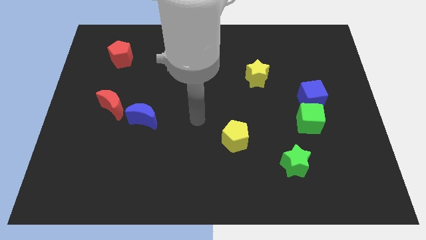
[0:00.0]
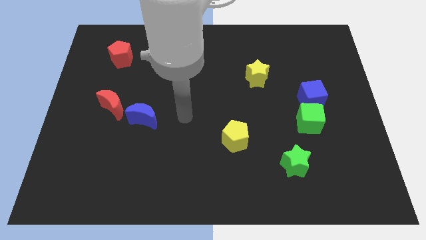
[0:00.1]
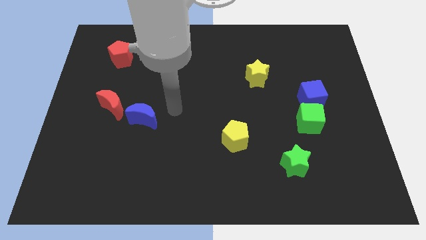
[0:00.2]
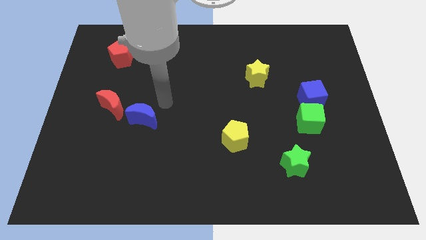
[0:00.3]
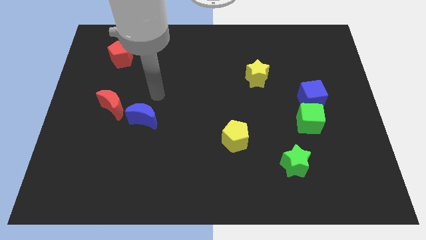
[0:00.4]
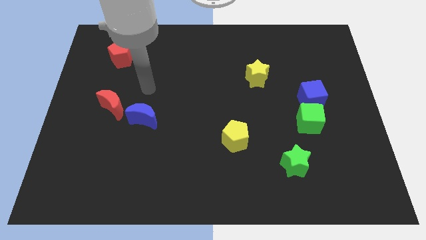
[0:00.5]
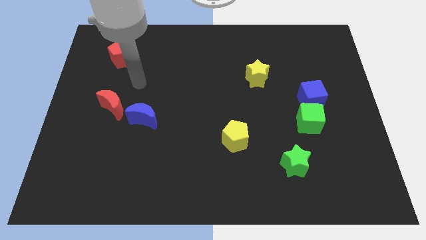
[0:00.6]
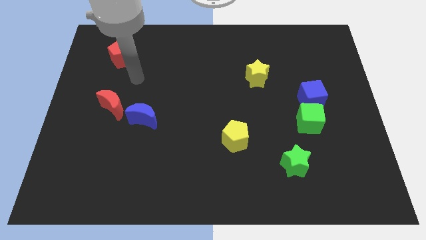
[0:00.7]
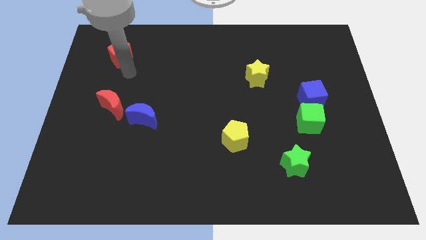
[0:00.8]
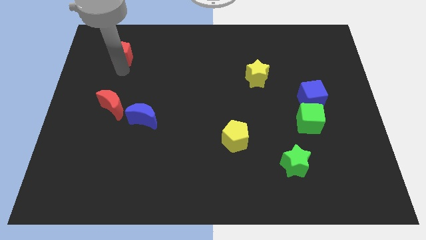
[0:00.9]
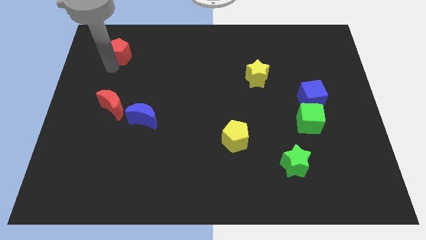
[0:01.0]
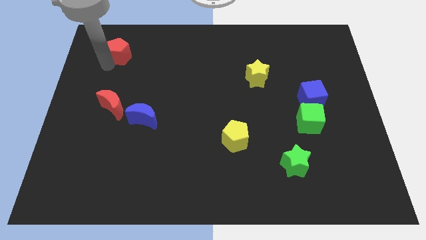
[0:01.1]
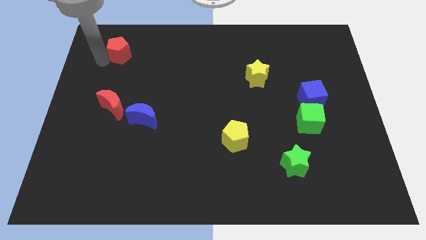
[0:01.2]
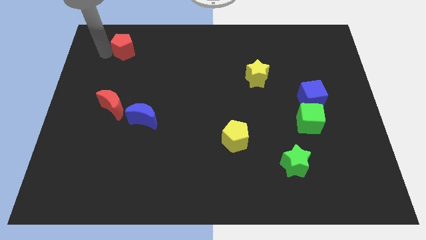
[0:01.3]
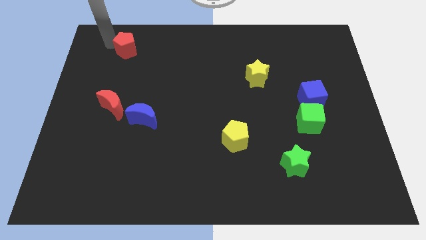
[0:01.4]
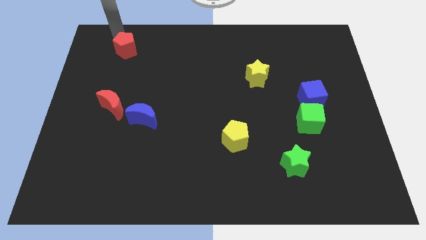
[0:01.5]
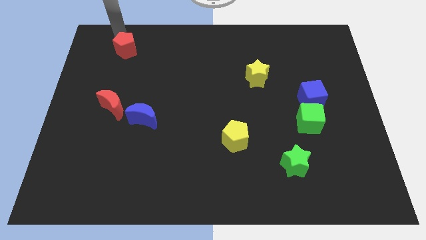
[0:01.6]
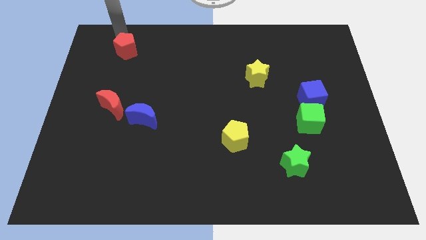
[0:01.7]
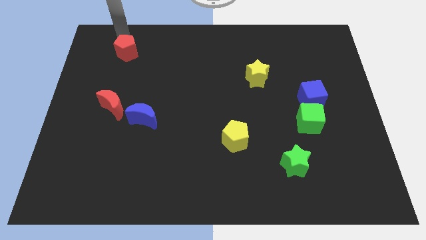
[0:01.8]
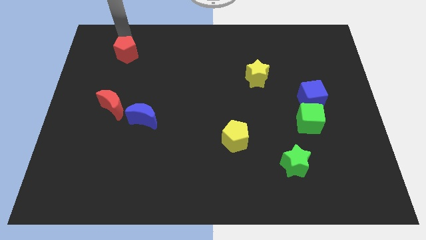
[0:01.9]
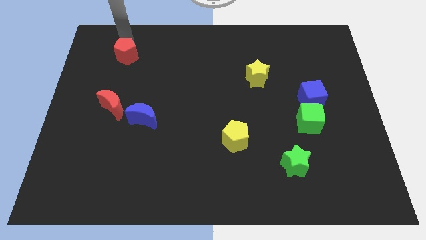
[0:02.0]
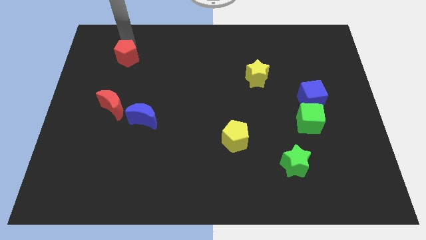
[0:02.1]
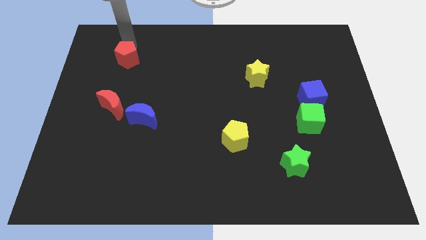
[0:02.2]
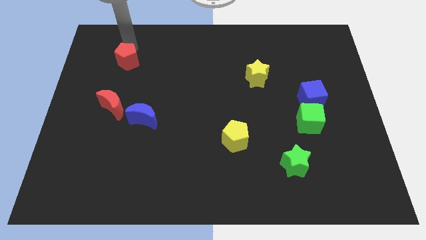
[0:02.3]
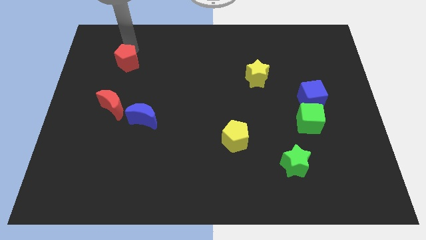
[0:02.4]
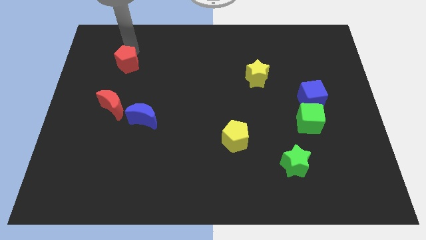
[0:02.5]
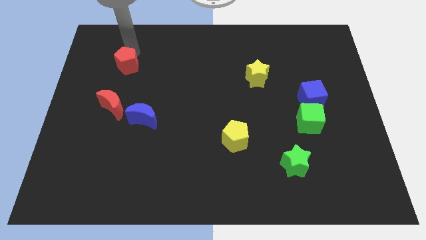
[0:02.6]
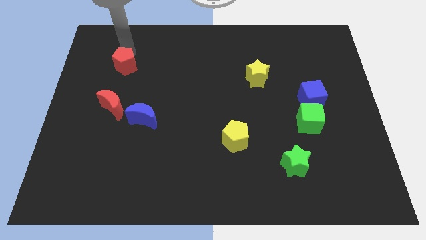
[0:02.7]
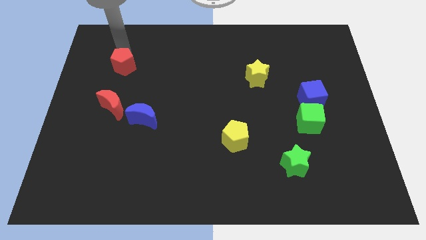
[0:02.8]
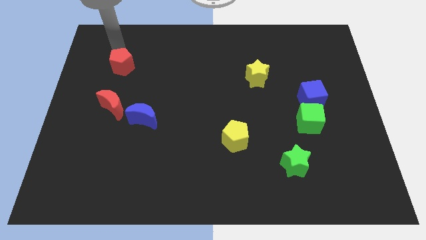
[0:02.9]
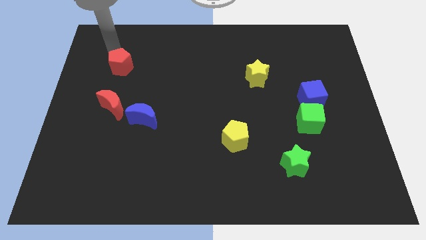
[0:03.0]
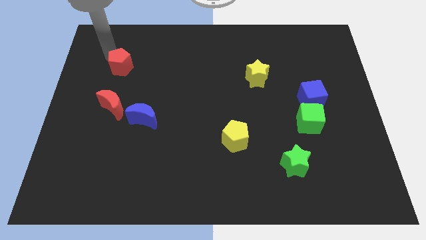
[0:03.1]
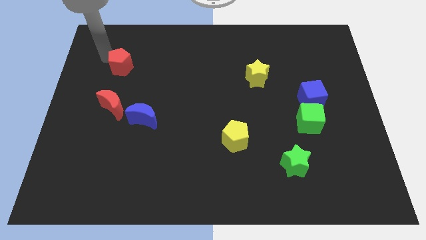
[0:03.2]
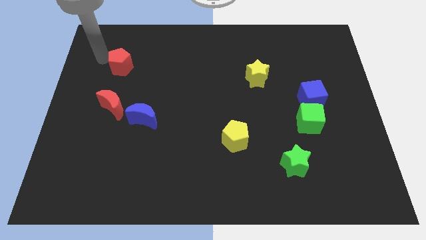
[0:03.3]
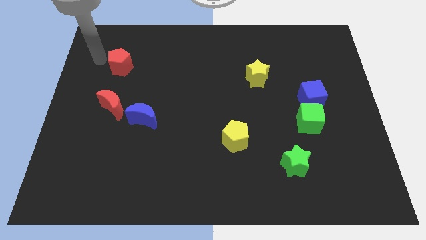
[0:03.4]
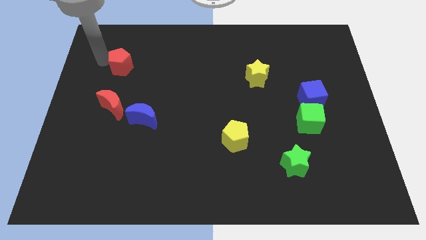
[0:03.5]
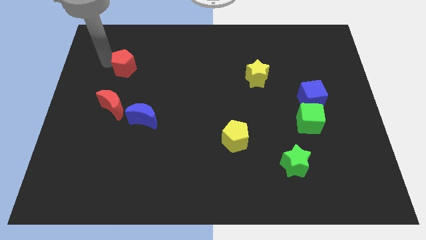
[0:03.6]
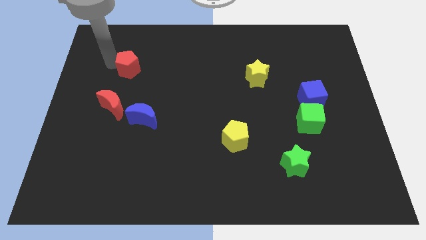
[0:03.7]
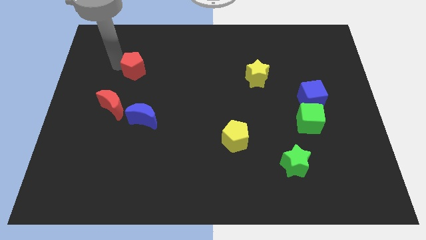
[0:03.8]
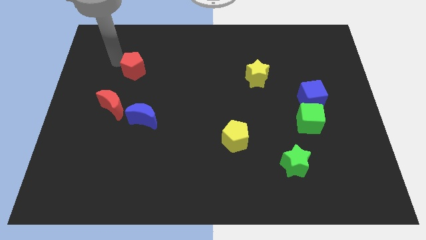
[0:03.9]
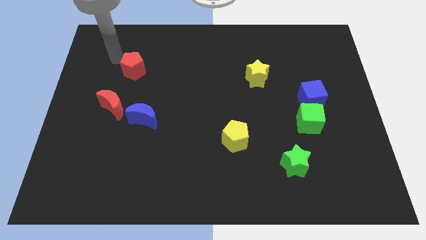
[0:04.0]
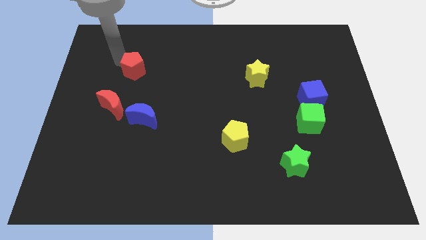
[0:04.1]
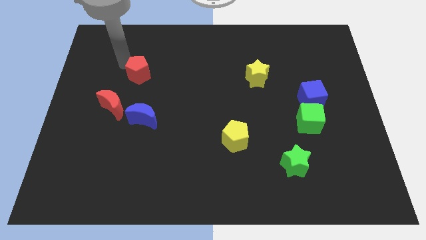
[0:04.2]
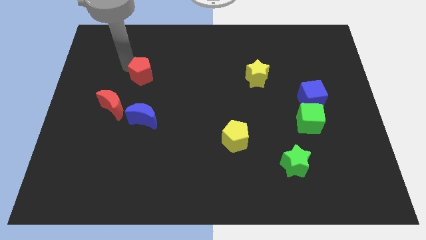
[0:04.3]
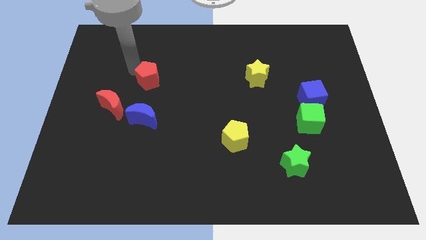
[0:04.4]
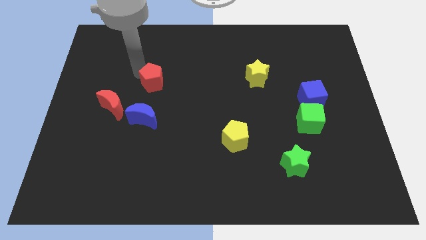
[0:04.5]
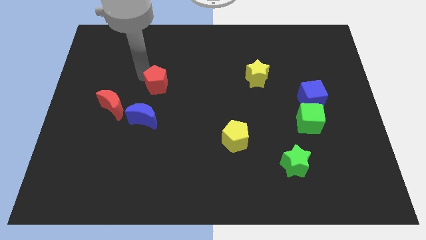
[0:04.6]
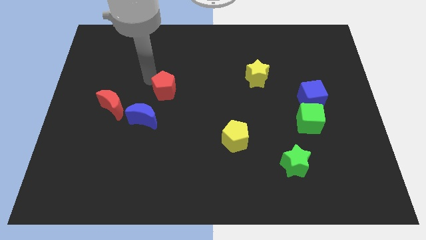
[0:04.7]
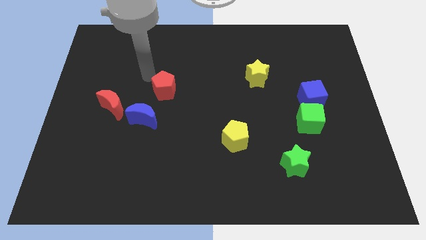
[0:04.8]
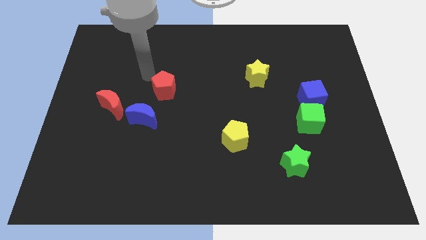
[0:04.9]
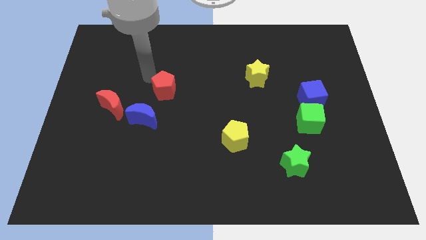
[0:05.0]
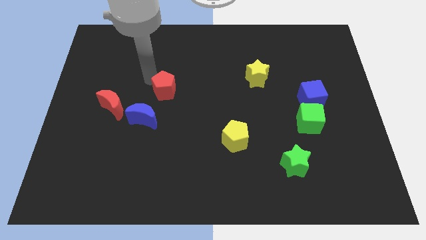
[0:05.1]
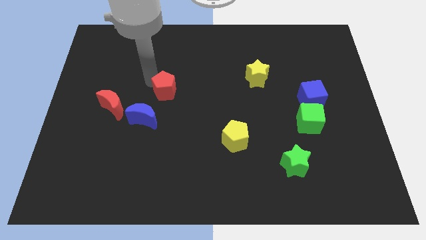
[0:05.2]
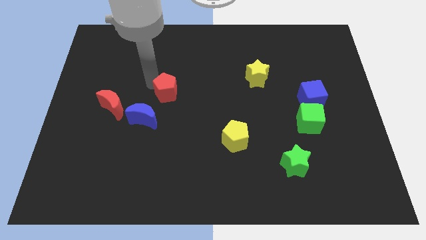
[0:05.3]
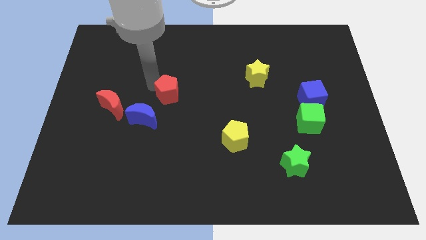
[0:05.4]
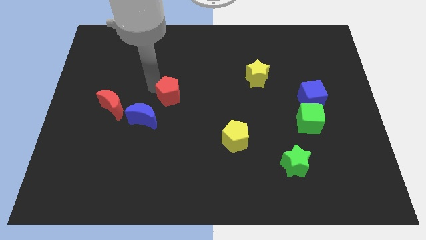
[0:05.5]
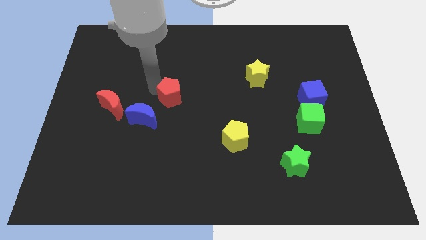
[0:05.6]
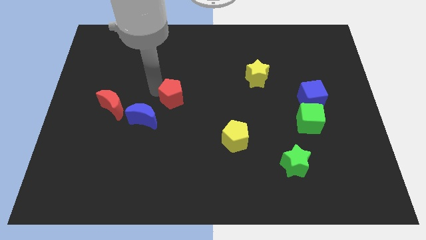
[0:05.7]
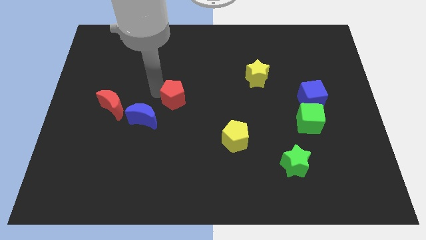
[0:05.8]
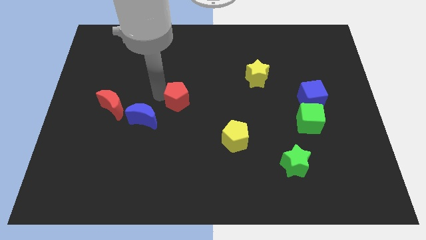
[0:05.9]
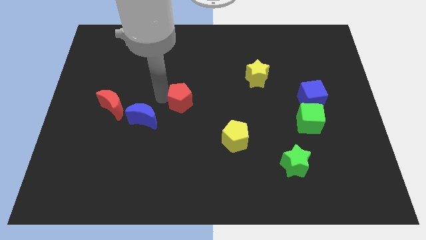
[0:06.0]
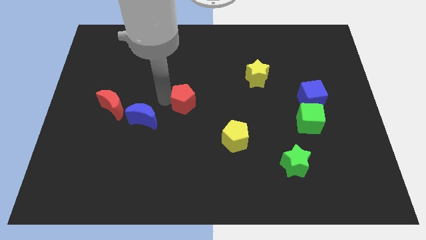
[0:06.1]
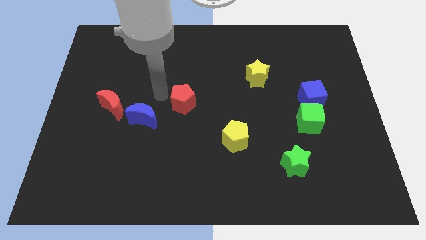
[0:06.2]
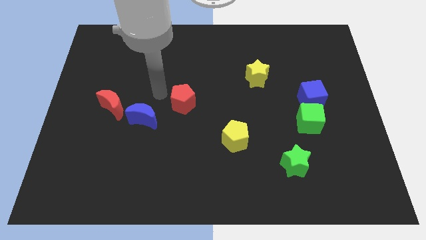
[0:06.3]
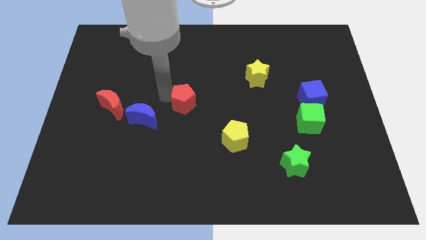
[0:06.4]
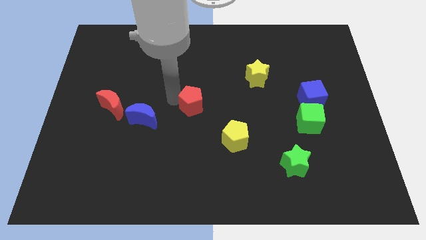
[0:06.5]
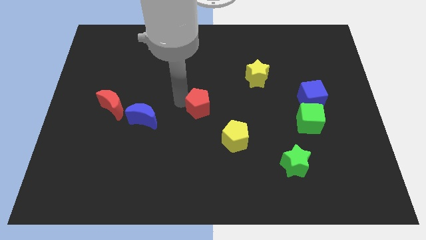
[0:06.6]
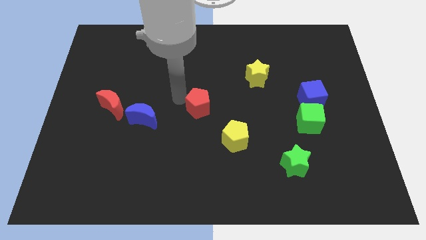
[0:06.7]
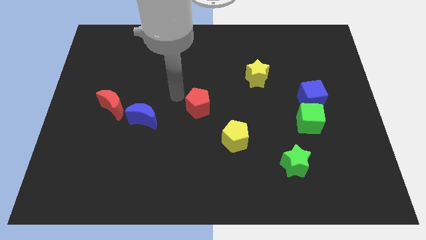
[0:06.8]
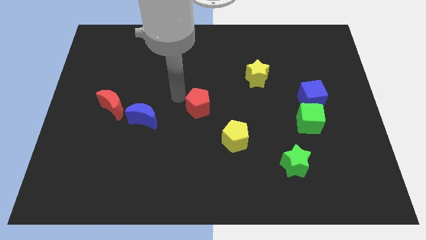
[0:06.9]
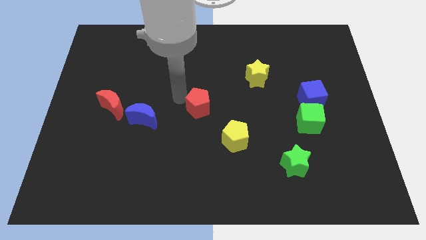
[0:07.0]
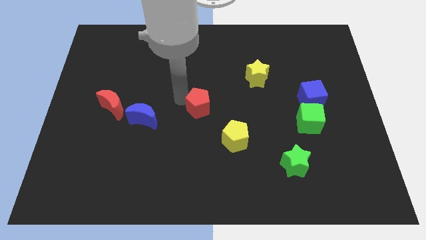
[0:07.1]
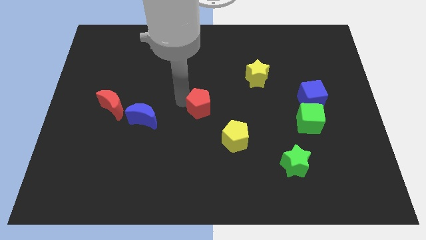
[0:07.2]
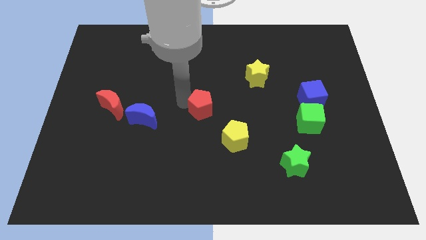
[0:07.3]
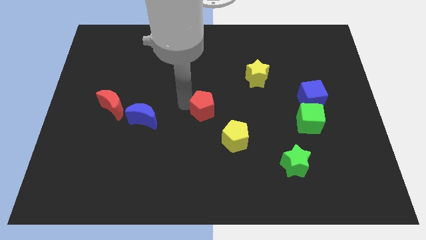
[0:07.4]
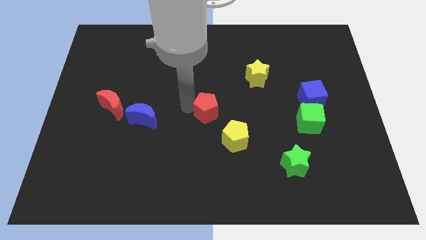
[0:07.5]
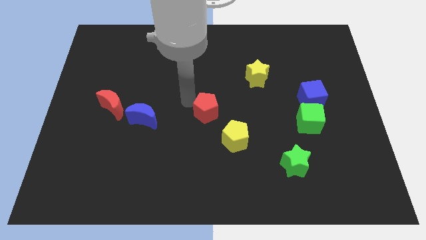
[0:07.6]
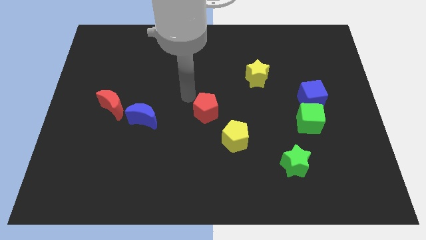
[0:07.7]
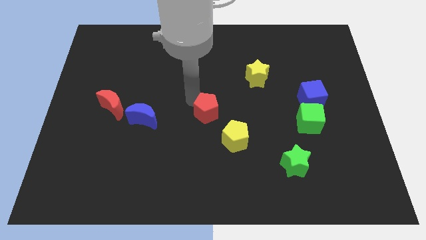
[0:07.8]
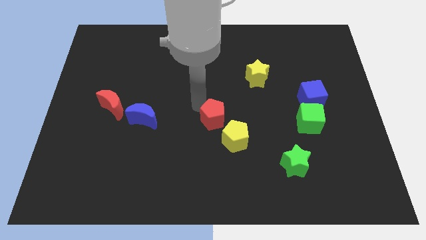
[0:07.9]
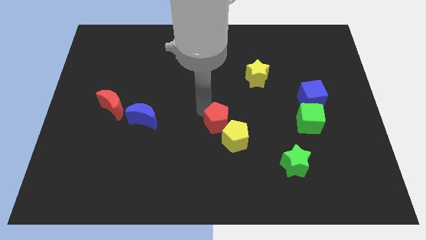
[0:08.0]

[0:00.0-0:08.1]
move the red pentagon towards the yellow pentagon
